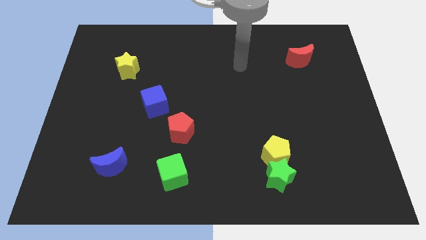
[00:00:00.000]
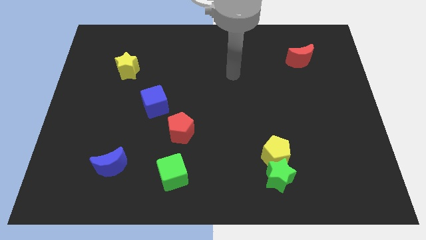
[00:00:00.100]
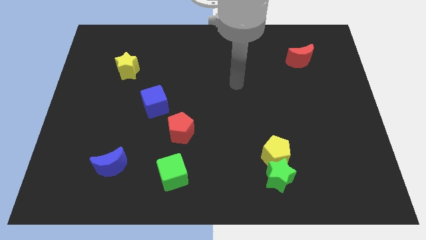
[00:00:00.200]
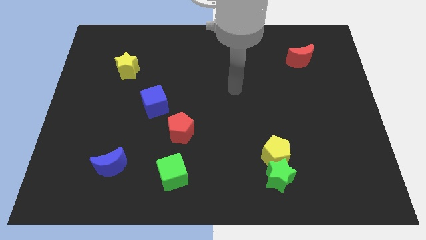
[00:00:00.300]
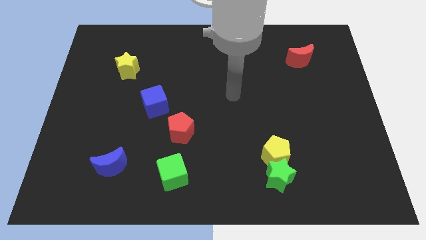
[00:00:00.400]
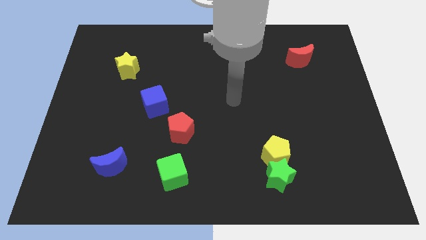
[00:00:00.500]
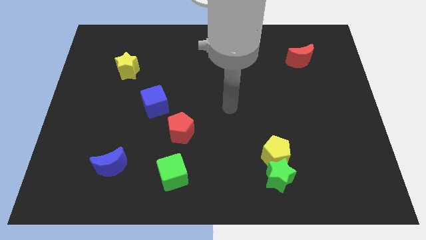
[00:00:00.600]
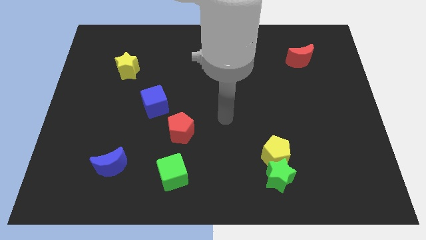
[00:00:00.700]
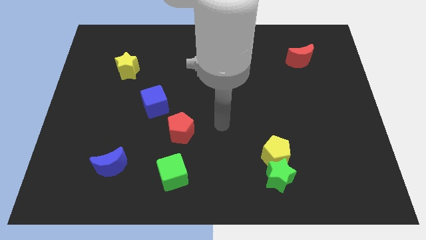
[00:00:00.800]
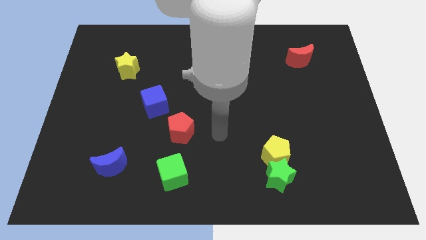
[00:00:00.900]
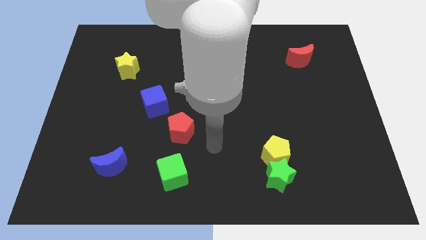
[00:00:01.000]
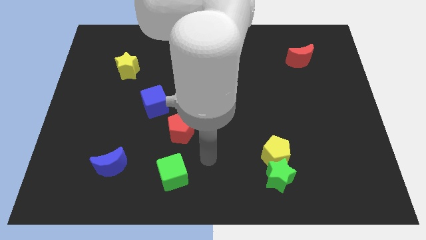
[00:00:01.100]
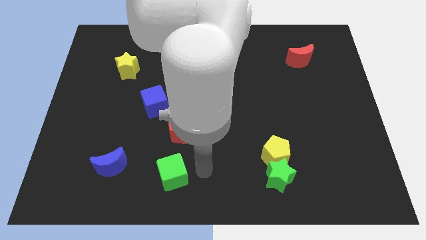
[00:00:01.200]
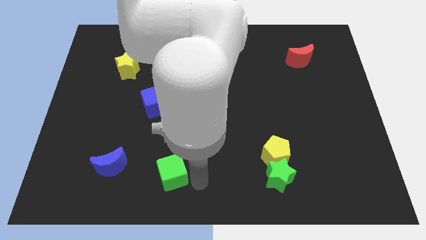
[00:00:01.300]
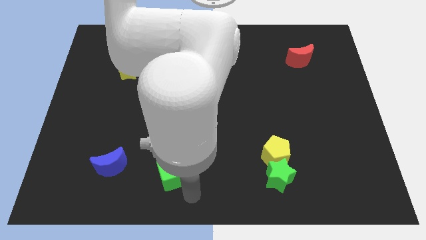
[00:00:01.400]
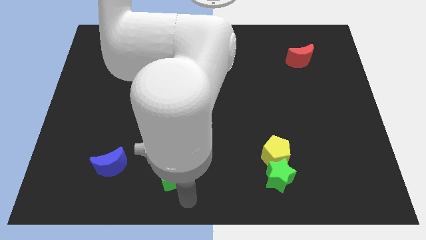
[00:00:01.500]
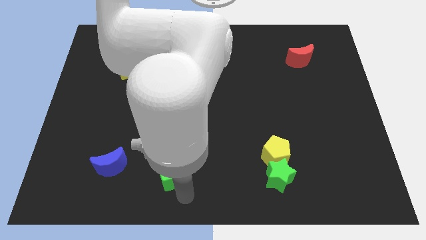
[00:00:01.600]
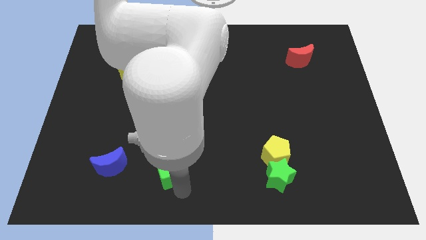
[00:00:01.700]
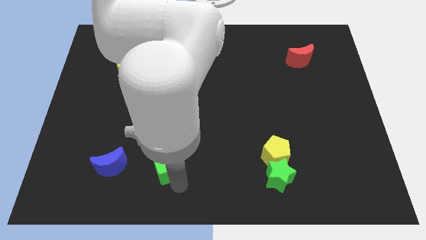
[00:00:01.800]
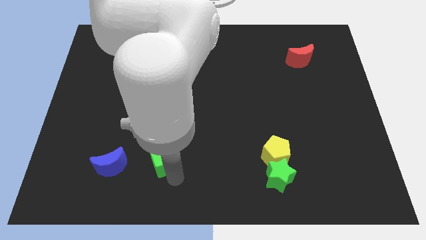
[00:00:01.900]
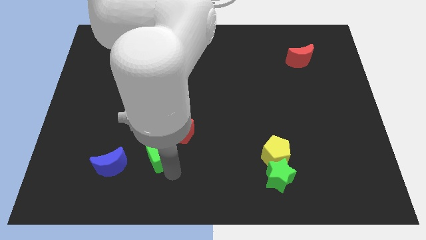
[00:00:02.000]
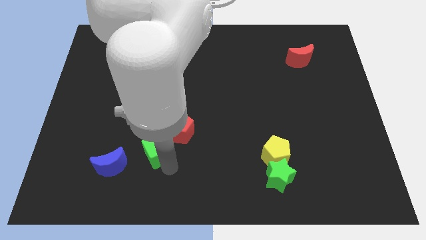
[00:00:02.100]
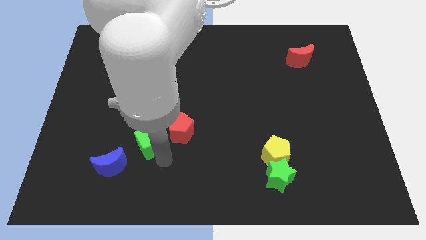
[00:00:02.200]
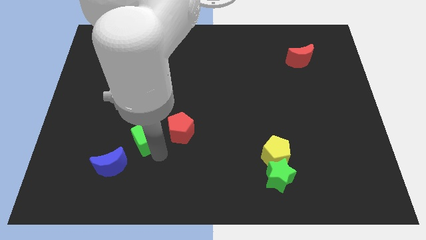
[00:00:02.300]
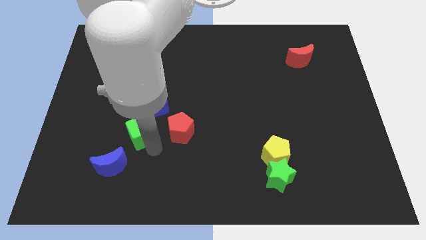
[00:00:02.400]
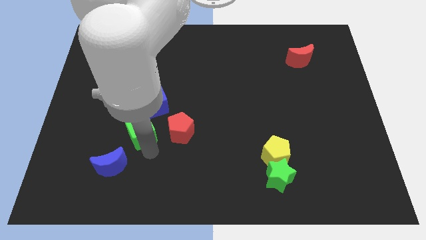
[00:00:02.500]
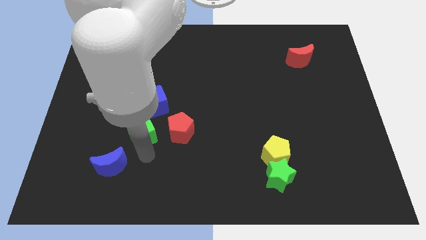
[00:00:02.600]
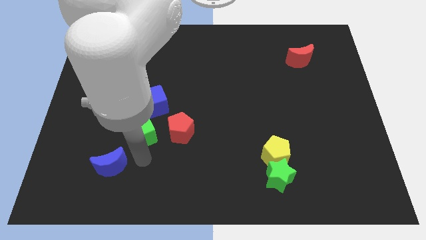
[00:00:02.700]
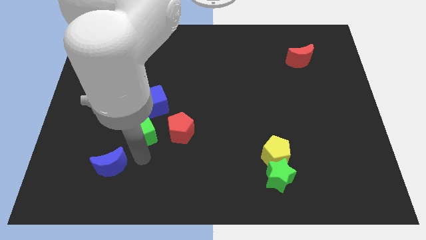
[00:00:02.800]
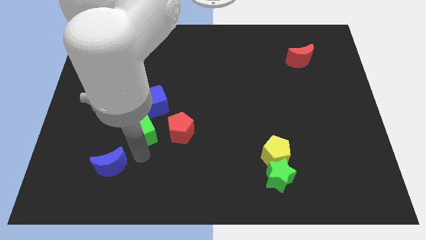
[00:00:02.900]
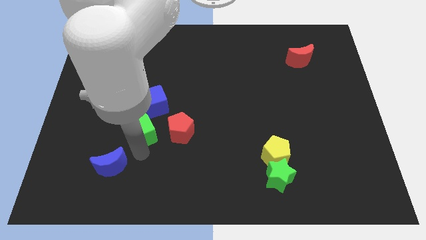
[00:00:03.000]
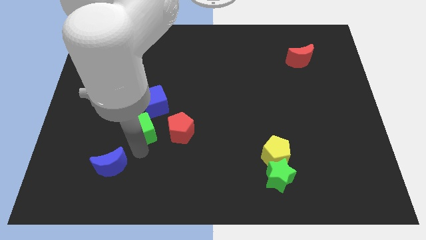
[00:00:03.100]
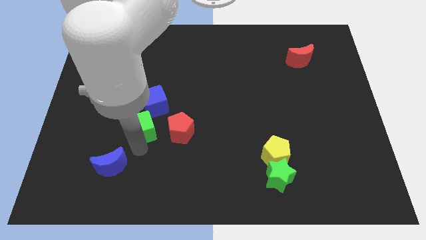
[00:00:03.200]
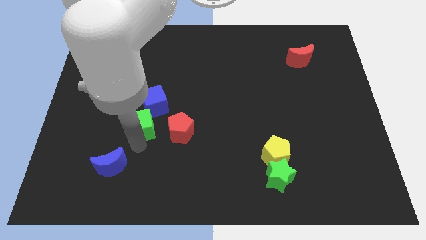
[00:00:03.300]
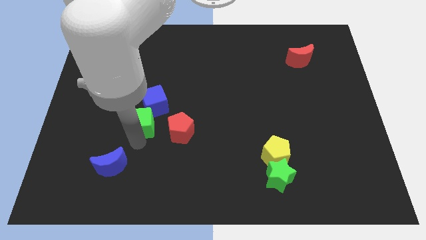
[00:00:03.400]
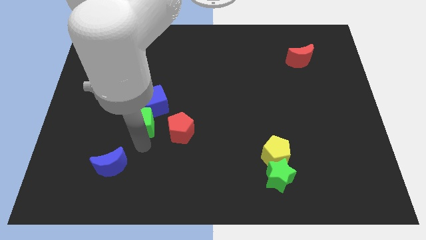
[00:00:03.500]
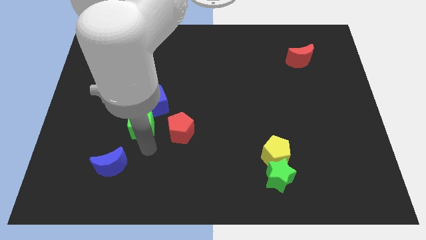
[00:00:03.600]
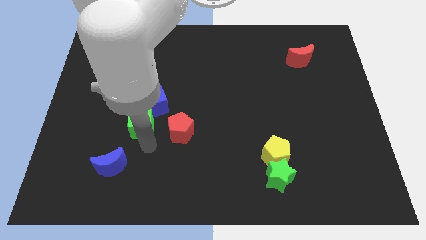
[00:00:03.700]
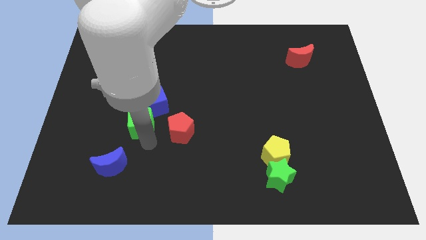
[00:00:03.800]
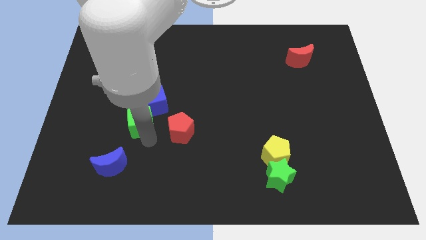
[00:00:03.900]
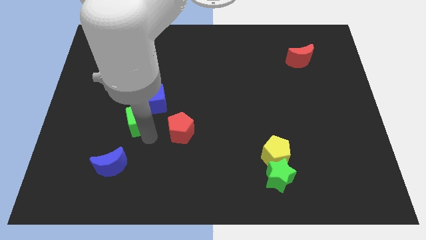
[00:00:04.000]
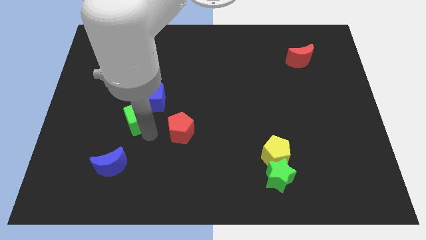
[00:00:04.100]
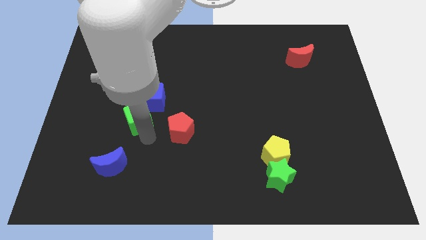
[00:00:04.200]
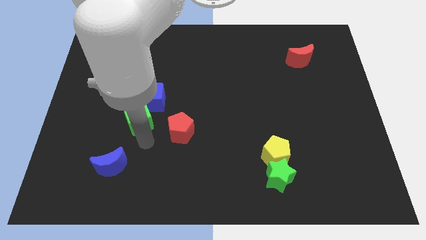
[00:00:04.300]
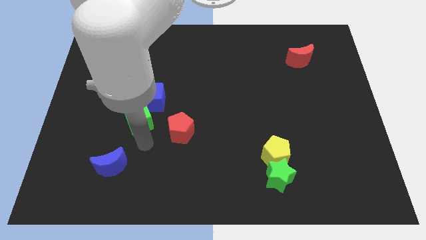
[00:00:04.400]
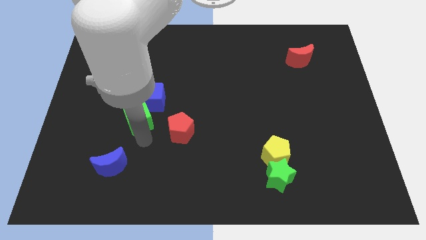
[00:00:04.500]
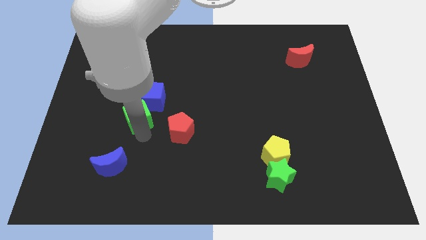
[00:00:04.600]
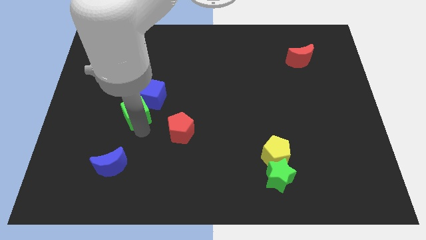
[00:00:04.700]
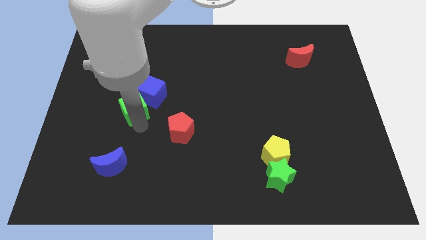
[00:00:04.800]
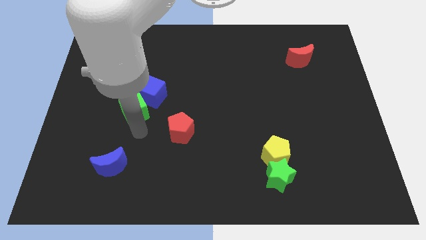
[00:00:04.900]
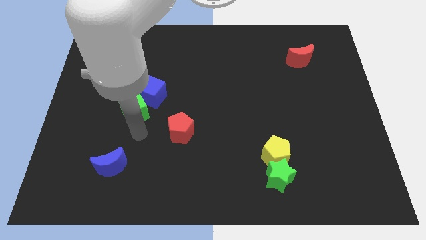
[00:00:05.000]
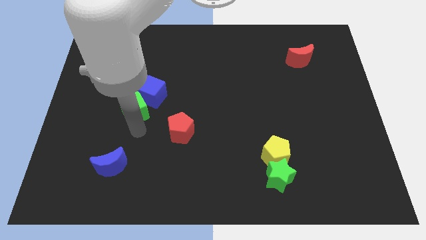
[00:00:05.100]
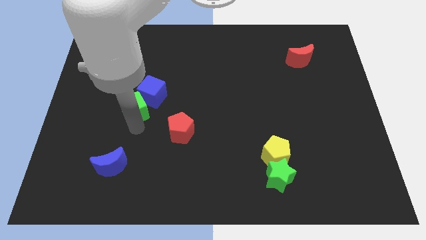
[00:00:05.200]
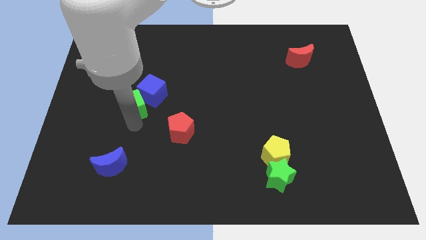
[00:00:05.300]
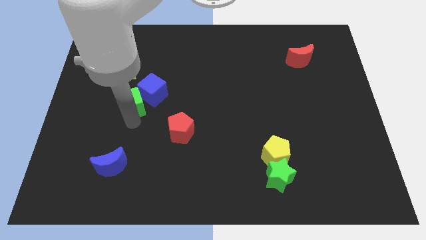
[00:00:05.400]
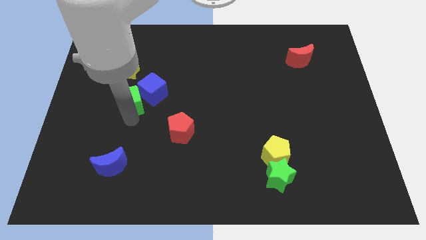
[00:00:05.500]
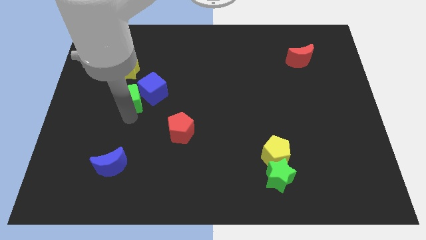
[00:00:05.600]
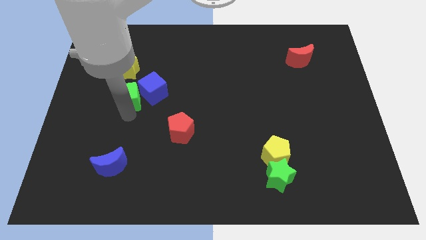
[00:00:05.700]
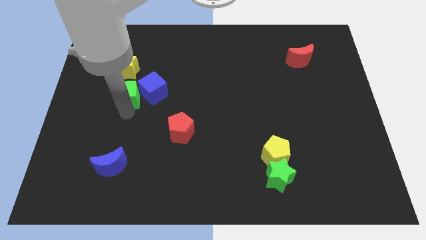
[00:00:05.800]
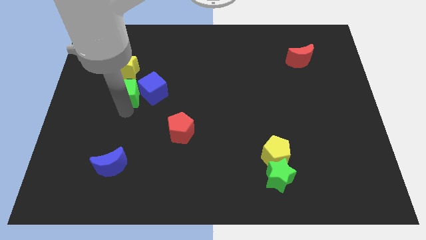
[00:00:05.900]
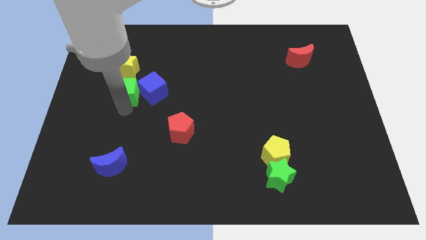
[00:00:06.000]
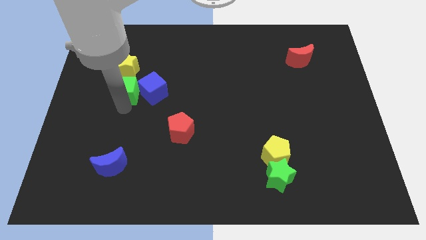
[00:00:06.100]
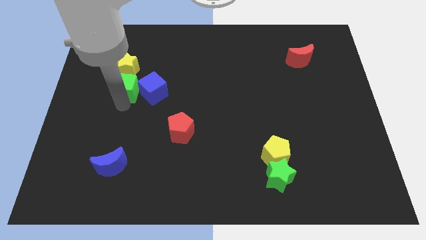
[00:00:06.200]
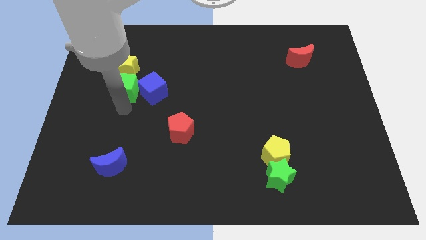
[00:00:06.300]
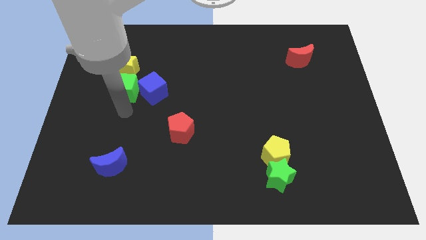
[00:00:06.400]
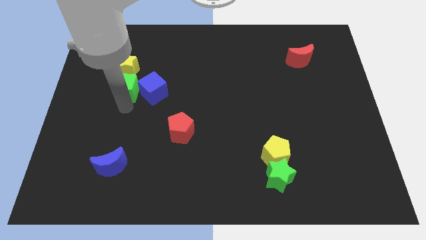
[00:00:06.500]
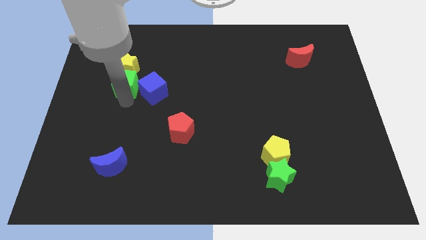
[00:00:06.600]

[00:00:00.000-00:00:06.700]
move the green cube towards the yellow star
